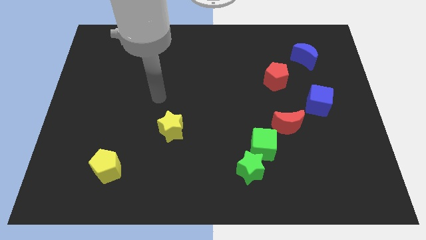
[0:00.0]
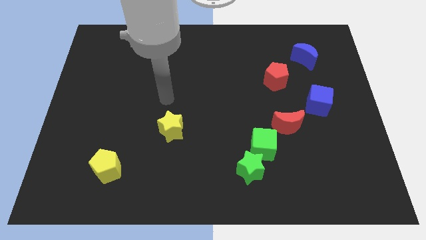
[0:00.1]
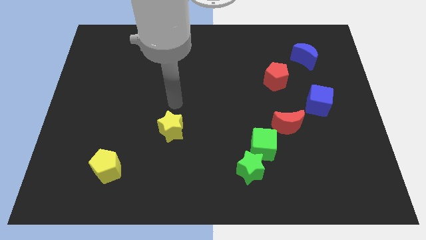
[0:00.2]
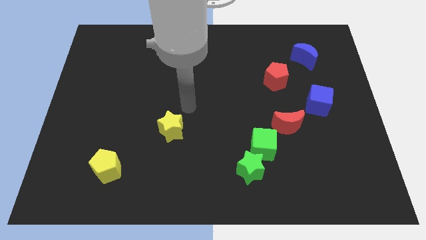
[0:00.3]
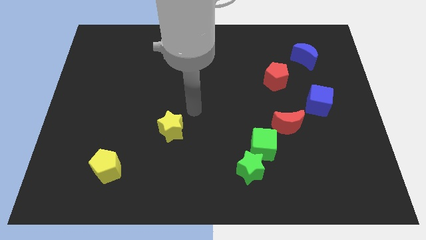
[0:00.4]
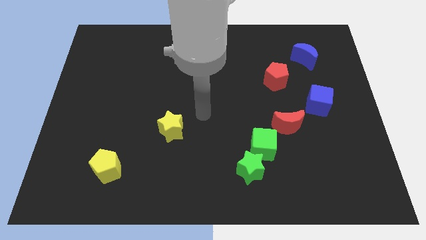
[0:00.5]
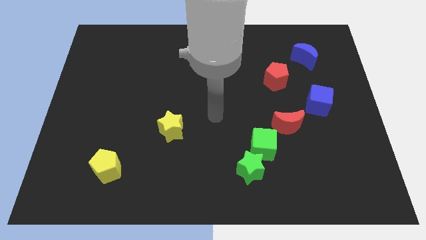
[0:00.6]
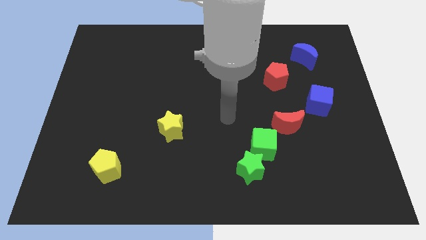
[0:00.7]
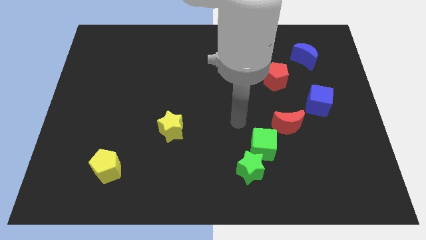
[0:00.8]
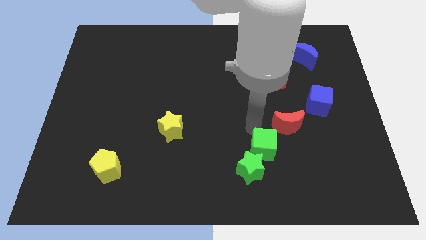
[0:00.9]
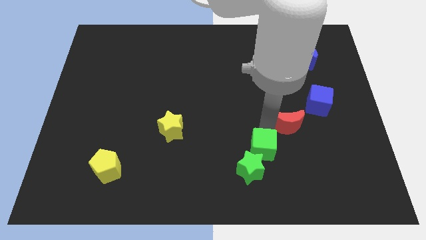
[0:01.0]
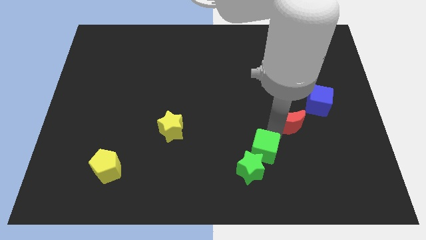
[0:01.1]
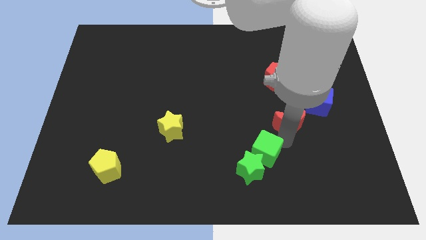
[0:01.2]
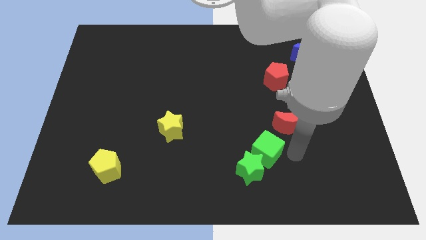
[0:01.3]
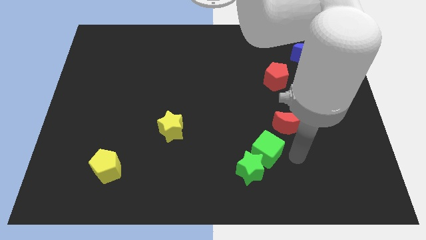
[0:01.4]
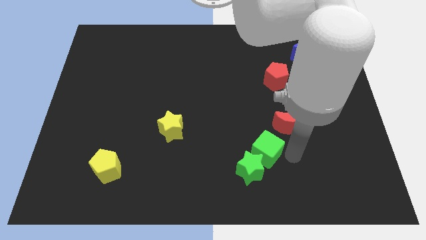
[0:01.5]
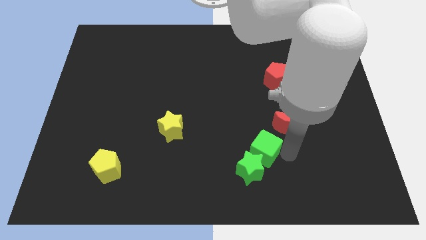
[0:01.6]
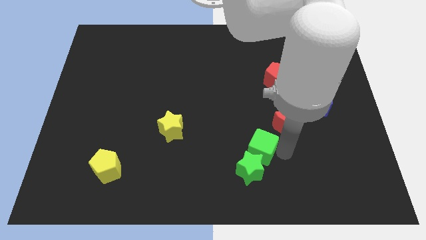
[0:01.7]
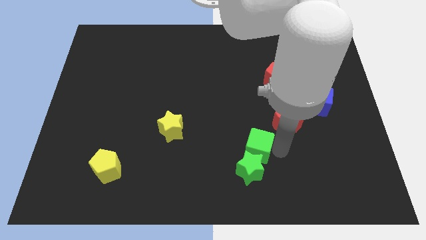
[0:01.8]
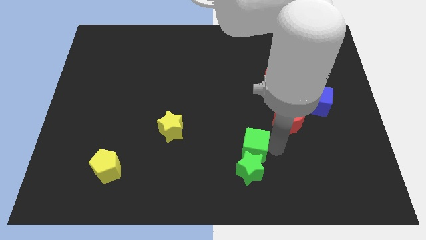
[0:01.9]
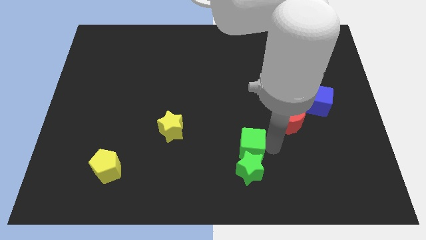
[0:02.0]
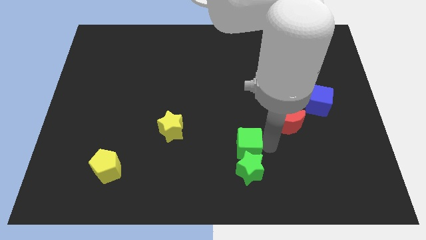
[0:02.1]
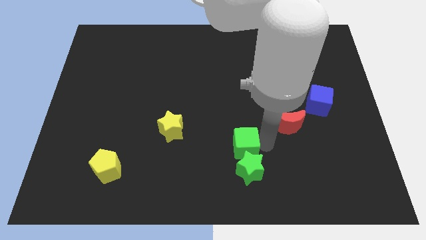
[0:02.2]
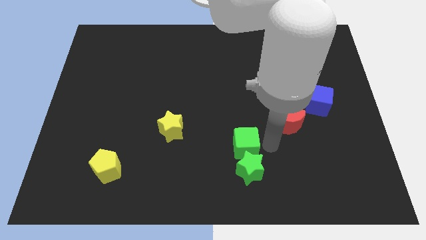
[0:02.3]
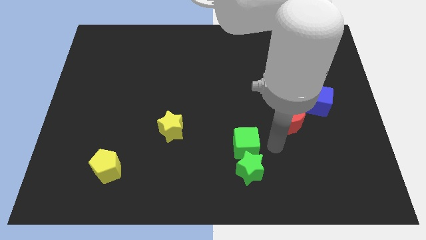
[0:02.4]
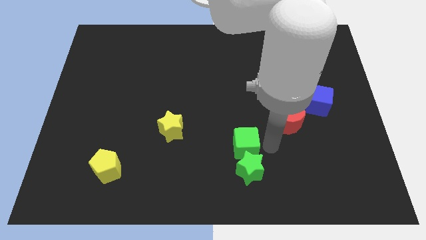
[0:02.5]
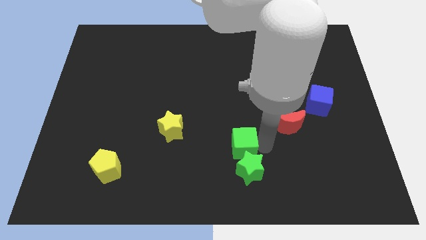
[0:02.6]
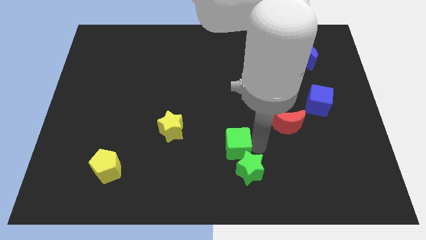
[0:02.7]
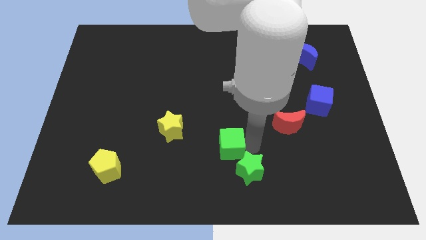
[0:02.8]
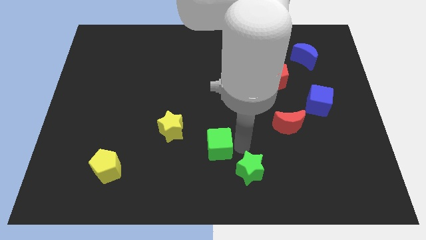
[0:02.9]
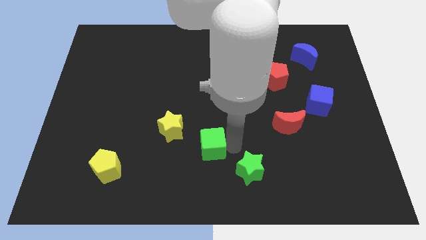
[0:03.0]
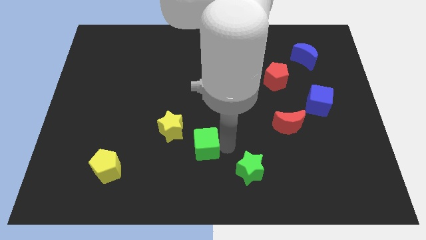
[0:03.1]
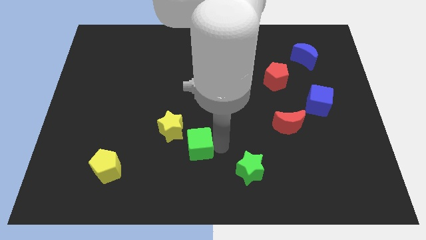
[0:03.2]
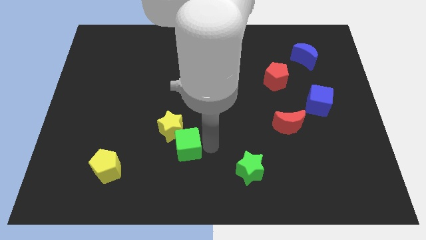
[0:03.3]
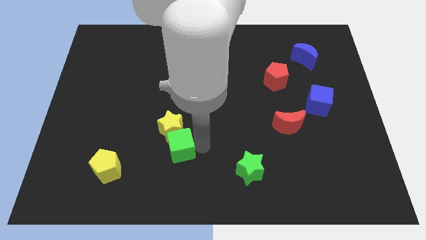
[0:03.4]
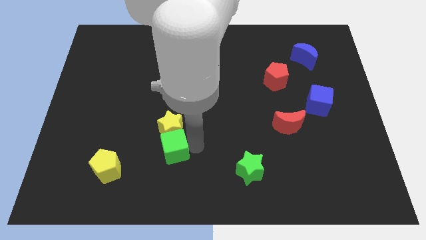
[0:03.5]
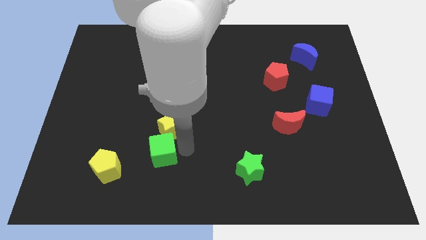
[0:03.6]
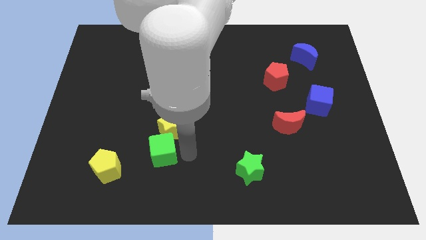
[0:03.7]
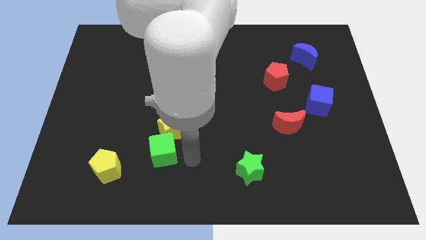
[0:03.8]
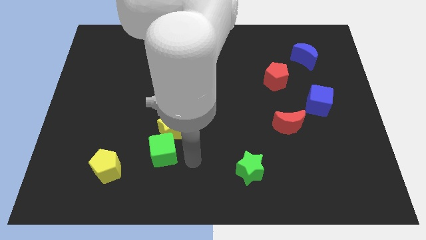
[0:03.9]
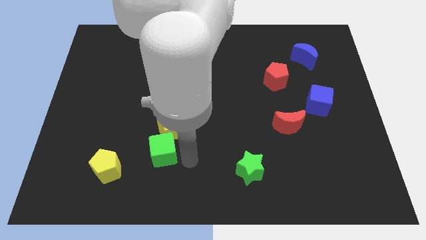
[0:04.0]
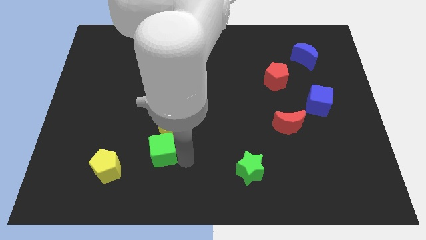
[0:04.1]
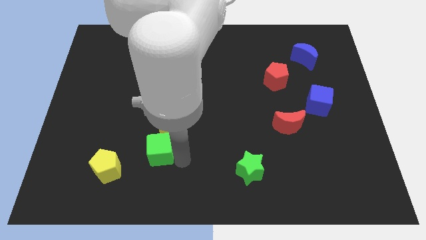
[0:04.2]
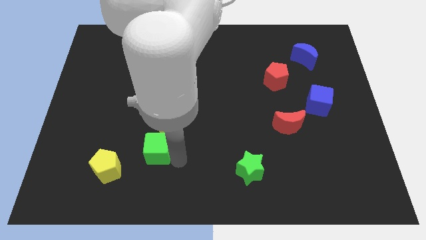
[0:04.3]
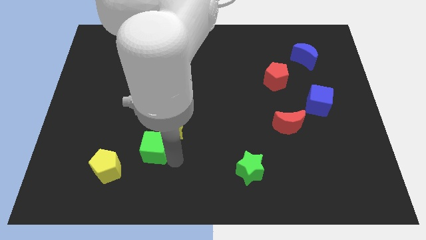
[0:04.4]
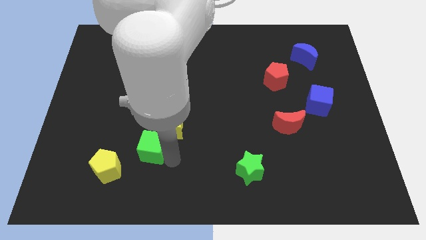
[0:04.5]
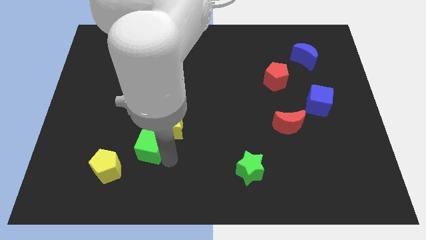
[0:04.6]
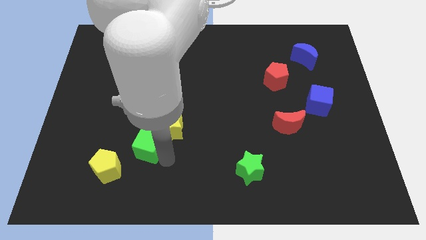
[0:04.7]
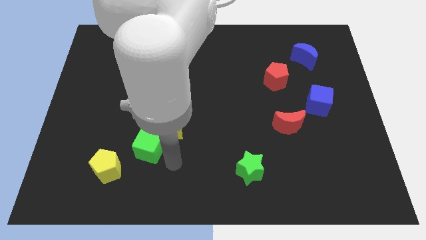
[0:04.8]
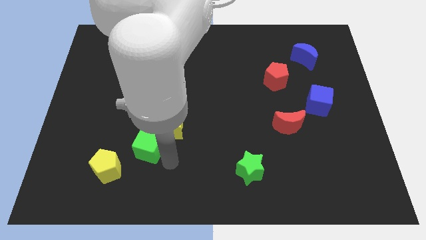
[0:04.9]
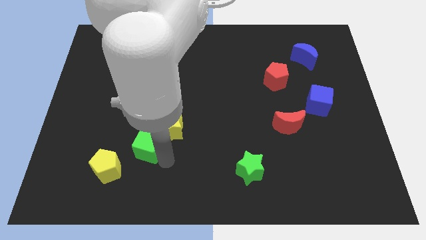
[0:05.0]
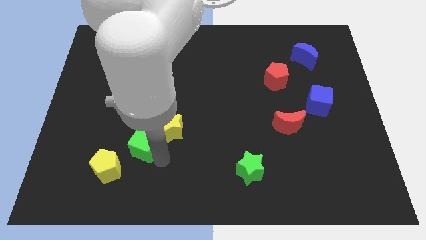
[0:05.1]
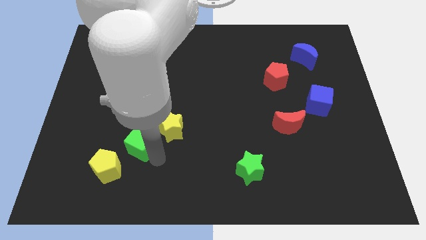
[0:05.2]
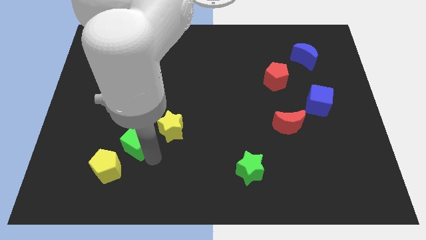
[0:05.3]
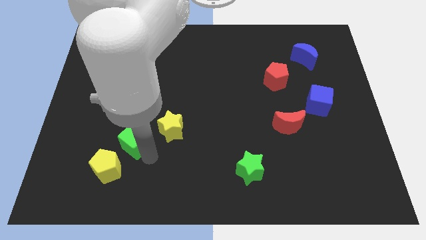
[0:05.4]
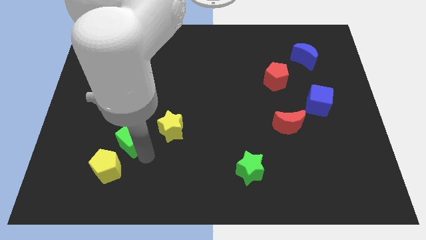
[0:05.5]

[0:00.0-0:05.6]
put the green cube above the yellow pentagon

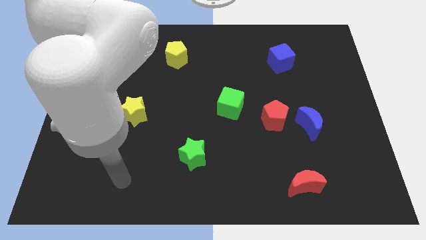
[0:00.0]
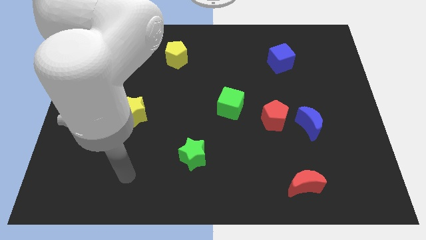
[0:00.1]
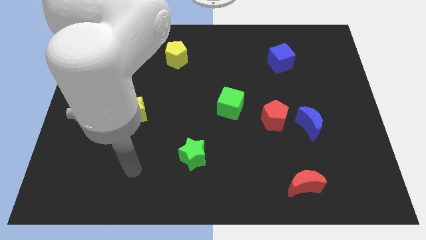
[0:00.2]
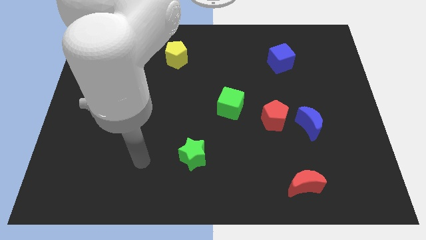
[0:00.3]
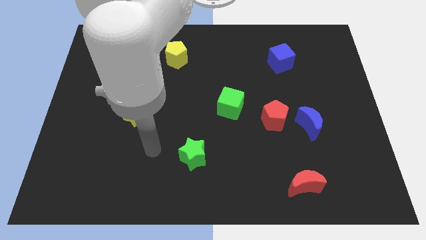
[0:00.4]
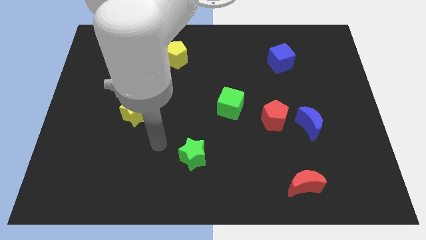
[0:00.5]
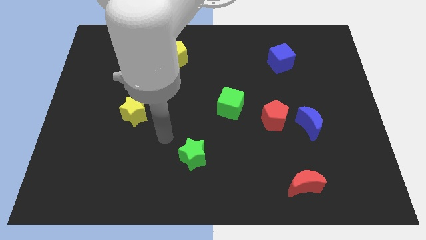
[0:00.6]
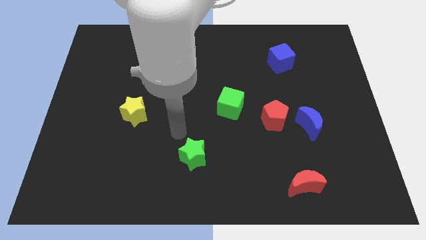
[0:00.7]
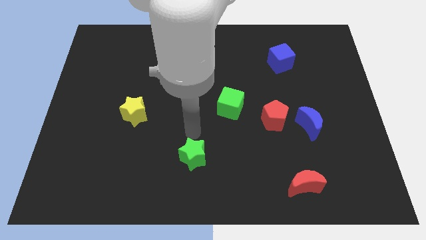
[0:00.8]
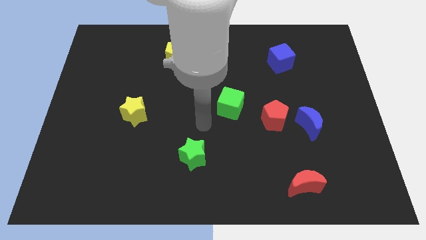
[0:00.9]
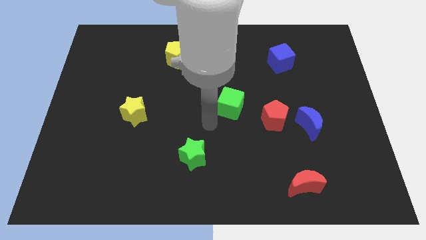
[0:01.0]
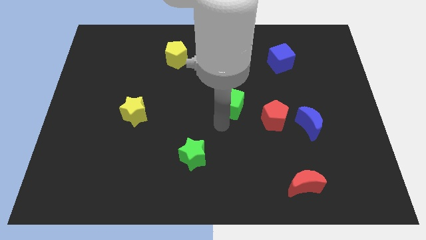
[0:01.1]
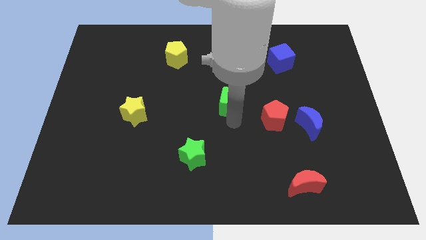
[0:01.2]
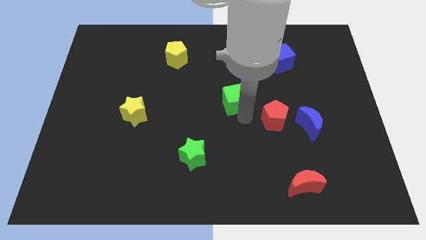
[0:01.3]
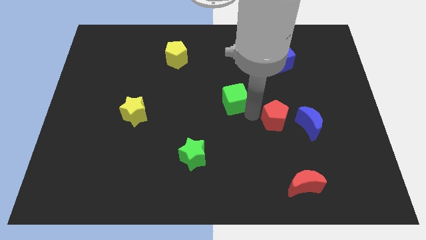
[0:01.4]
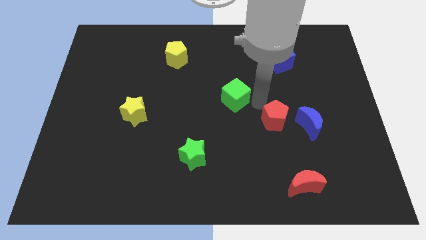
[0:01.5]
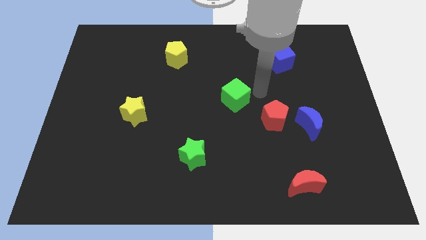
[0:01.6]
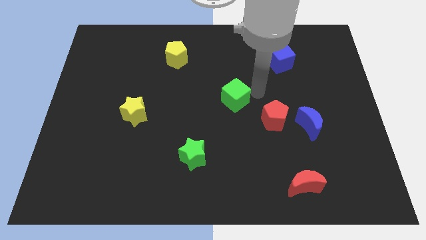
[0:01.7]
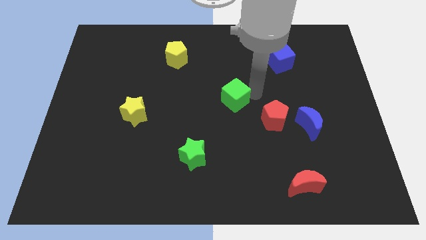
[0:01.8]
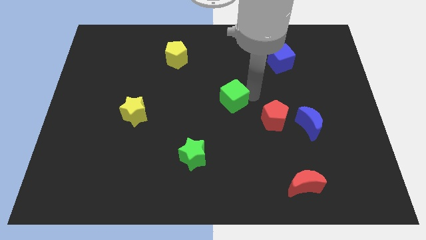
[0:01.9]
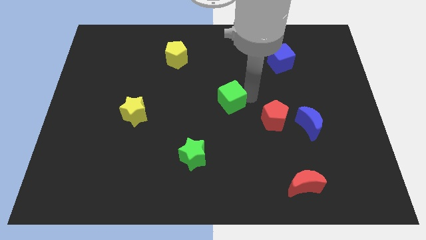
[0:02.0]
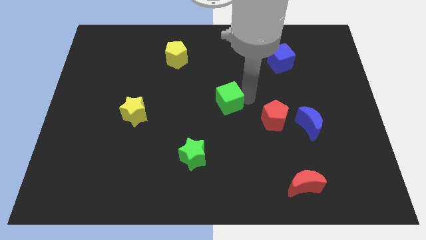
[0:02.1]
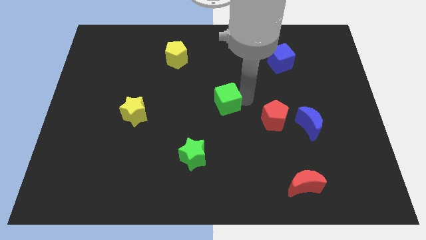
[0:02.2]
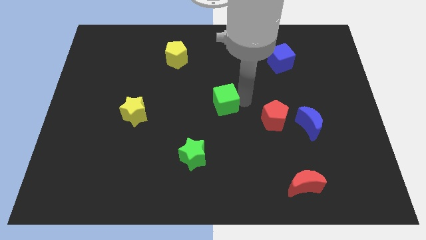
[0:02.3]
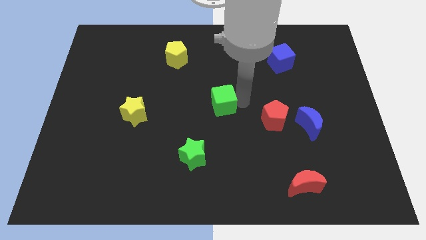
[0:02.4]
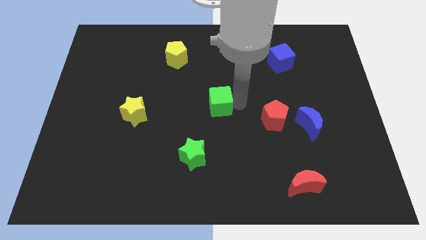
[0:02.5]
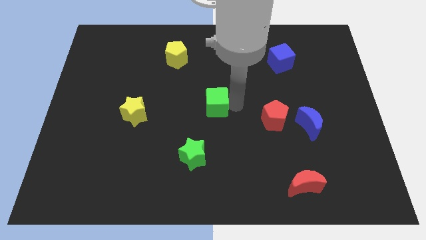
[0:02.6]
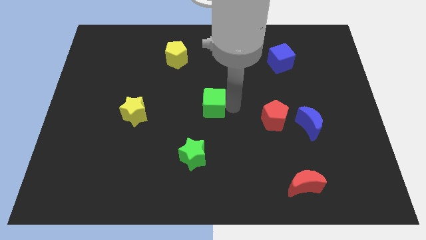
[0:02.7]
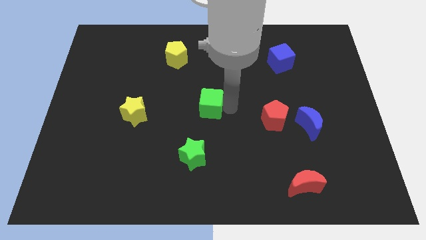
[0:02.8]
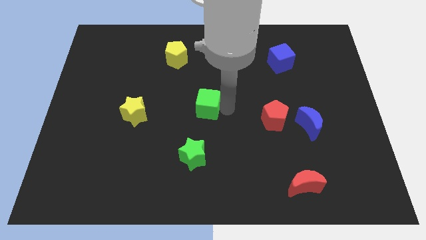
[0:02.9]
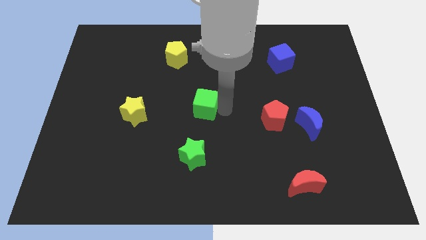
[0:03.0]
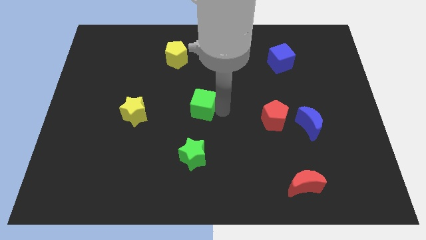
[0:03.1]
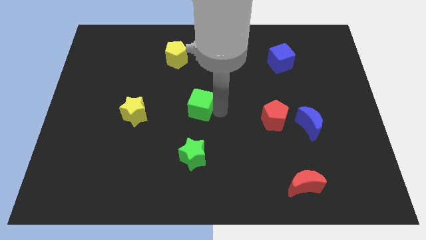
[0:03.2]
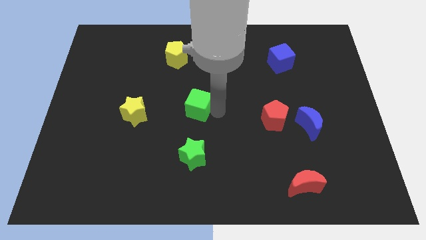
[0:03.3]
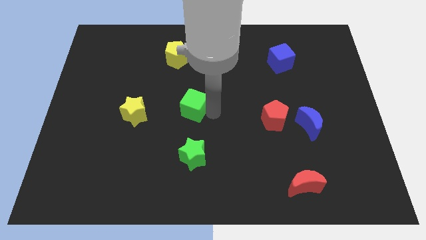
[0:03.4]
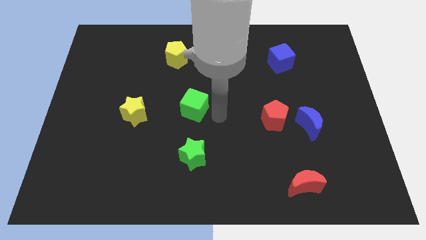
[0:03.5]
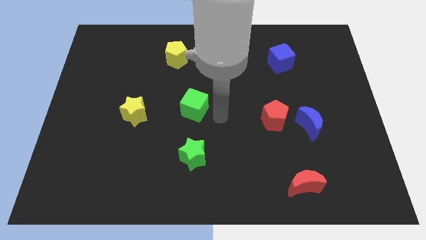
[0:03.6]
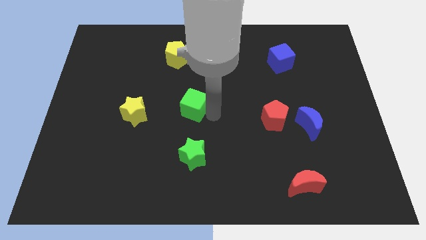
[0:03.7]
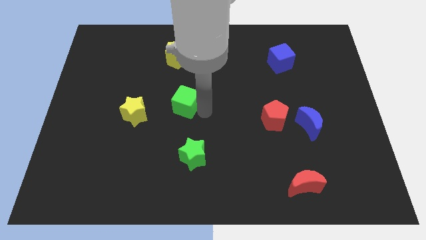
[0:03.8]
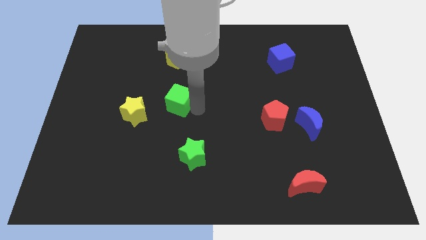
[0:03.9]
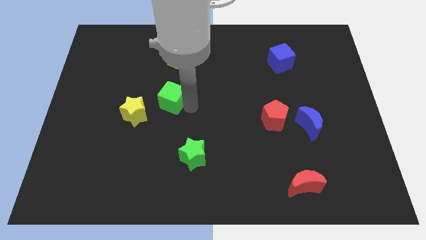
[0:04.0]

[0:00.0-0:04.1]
move the green cube diagonally up and to the right of the yellow star
